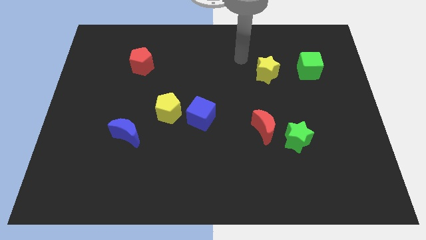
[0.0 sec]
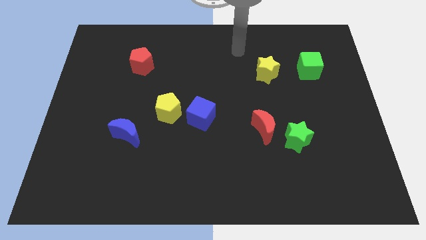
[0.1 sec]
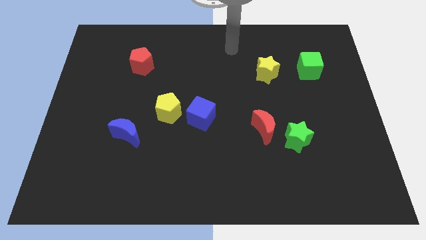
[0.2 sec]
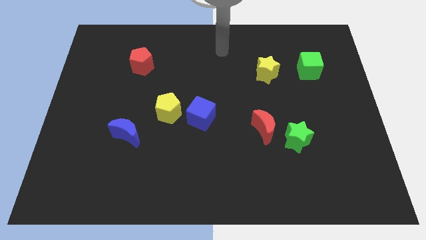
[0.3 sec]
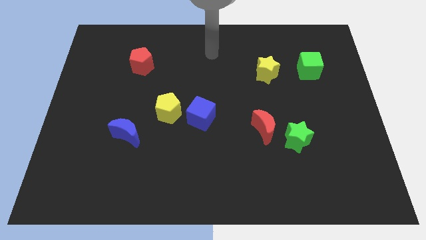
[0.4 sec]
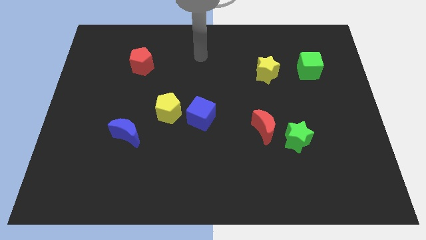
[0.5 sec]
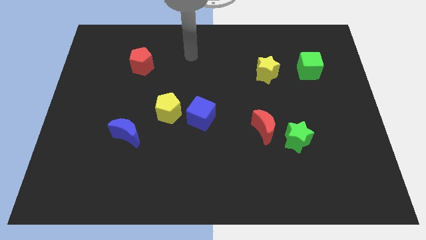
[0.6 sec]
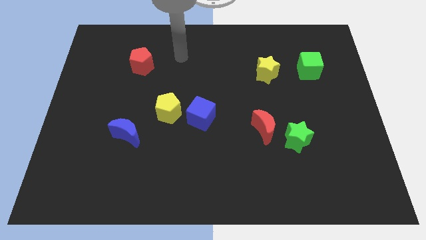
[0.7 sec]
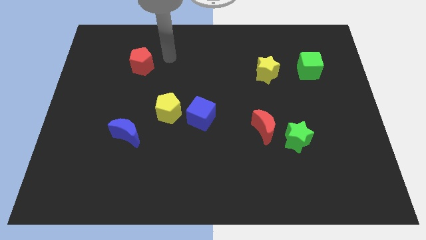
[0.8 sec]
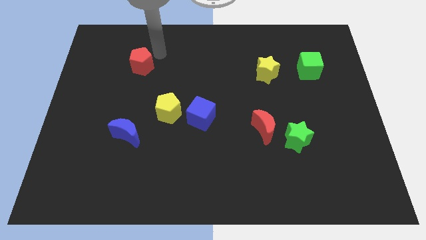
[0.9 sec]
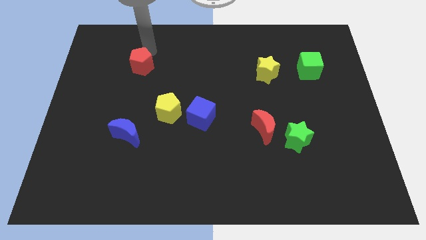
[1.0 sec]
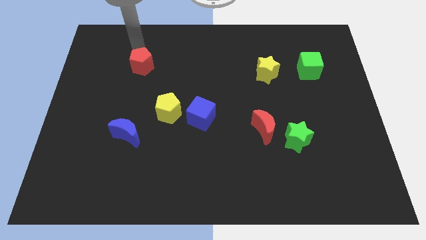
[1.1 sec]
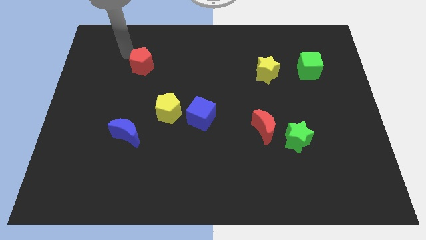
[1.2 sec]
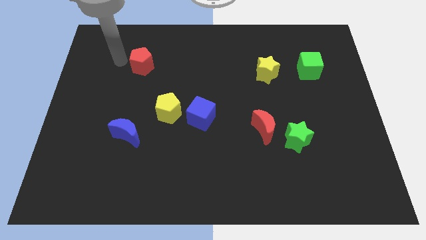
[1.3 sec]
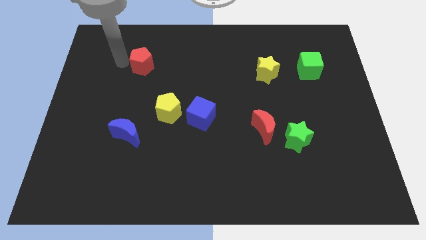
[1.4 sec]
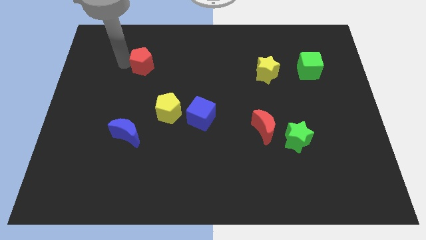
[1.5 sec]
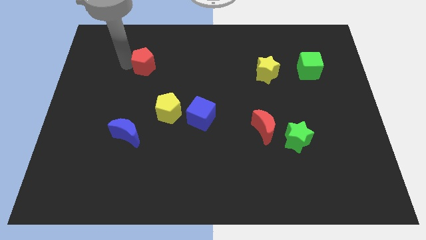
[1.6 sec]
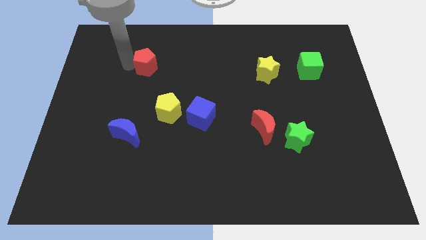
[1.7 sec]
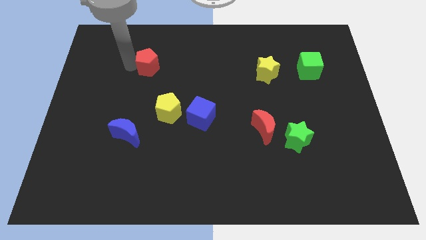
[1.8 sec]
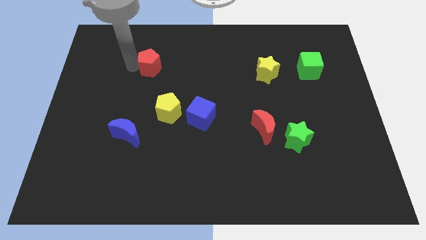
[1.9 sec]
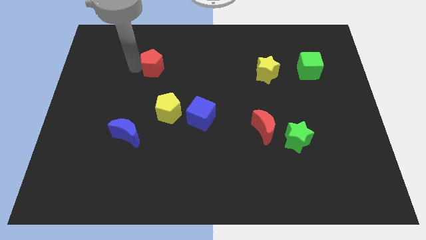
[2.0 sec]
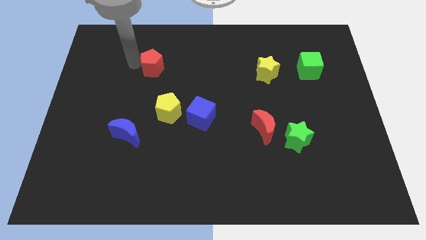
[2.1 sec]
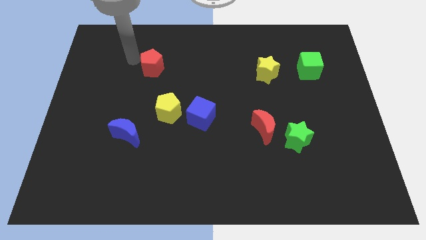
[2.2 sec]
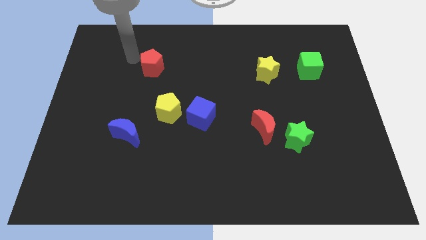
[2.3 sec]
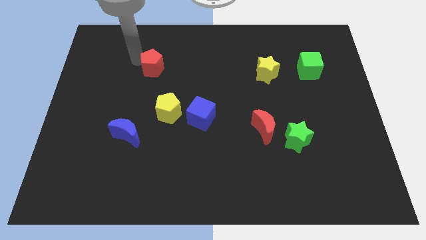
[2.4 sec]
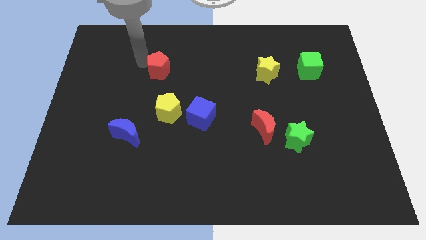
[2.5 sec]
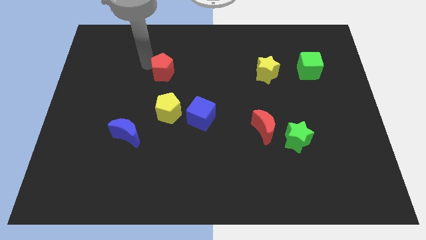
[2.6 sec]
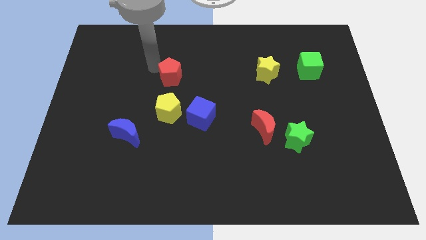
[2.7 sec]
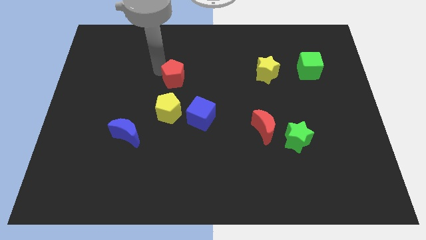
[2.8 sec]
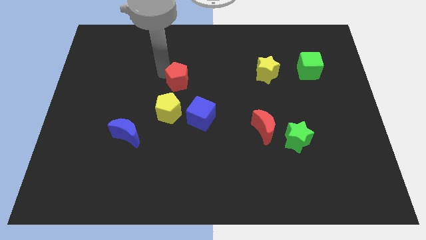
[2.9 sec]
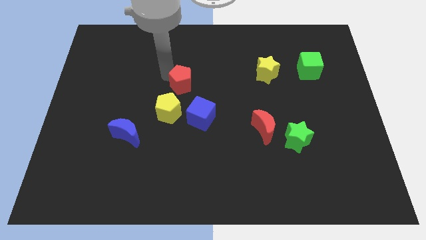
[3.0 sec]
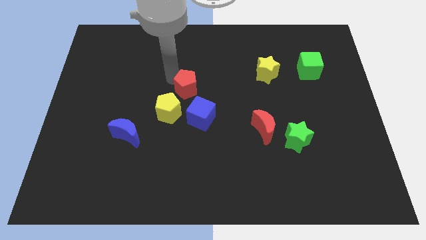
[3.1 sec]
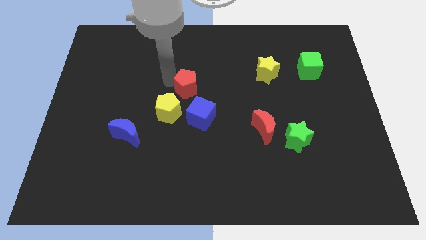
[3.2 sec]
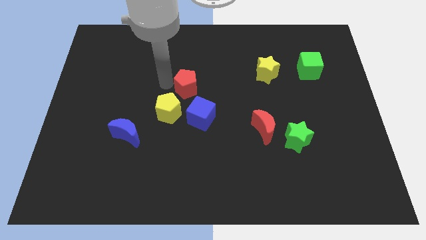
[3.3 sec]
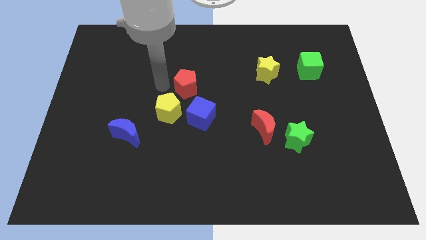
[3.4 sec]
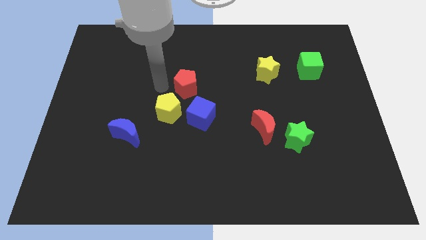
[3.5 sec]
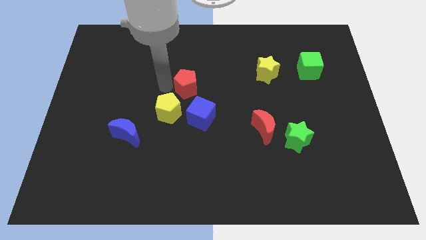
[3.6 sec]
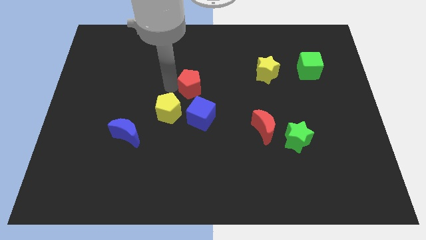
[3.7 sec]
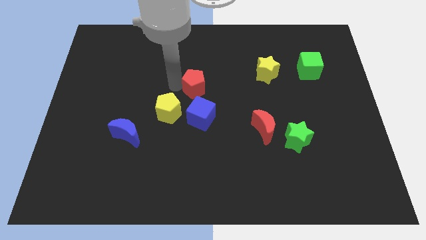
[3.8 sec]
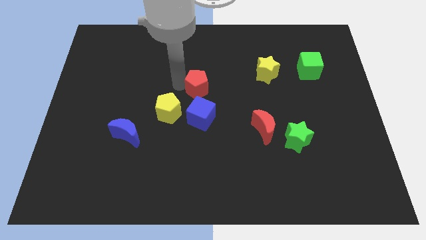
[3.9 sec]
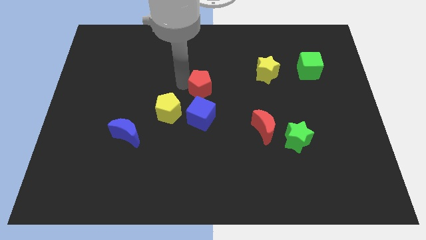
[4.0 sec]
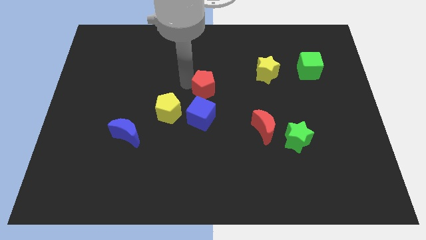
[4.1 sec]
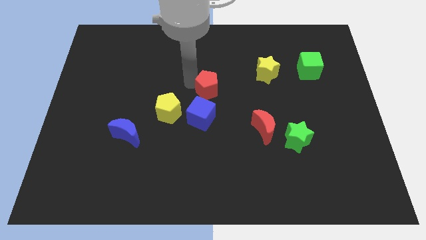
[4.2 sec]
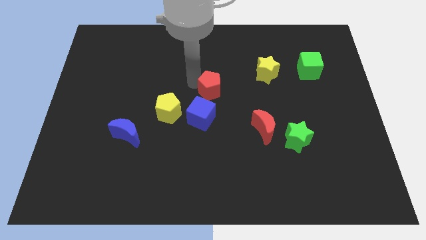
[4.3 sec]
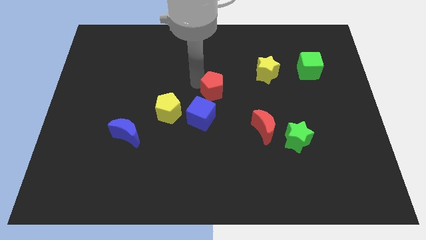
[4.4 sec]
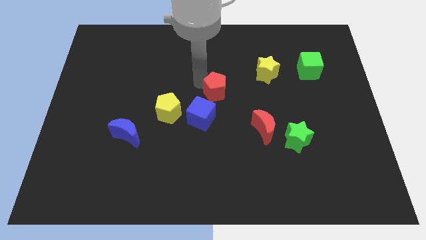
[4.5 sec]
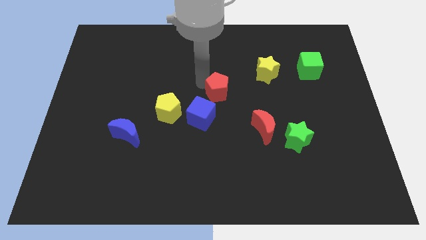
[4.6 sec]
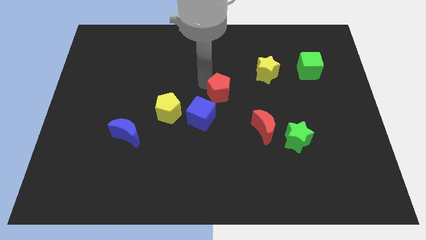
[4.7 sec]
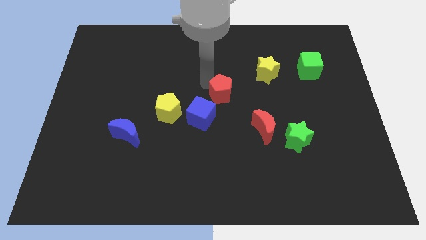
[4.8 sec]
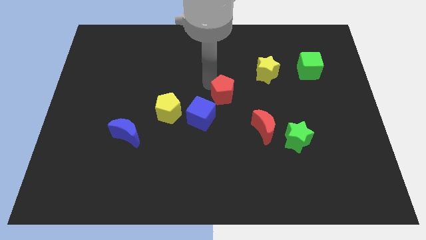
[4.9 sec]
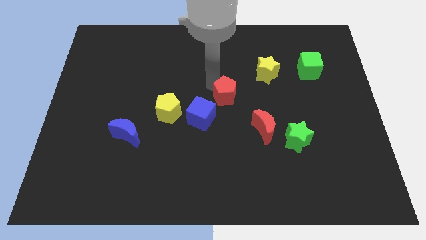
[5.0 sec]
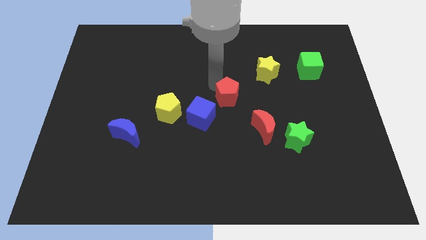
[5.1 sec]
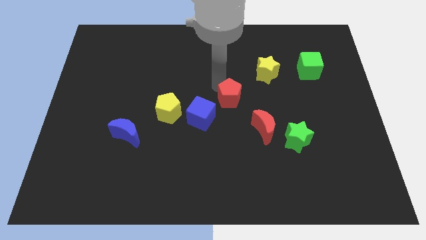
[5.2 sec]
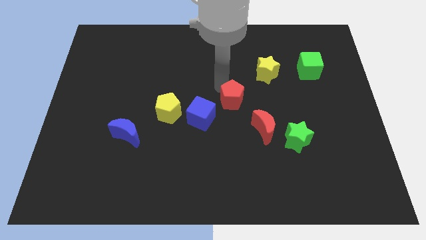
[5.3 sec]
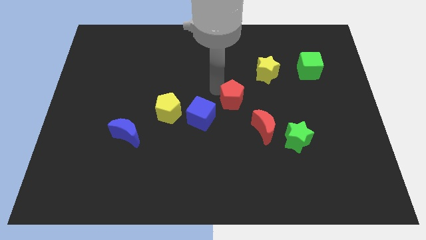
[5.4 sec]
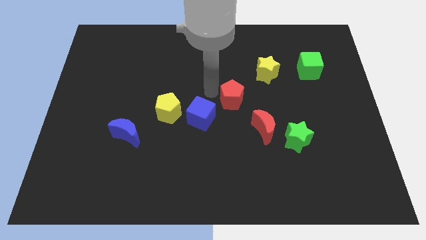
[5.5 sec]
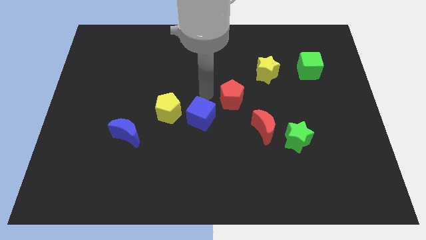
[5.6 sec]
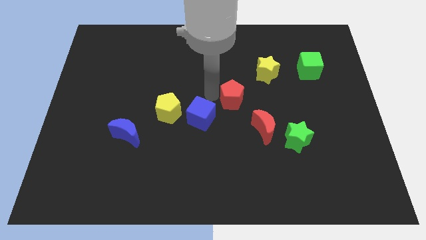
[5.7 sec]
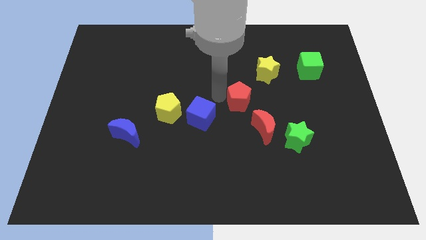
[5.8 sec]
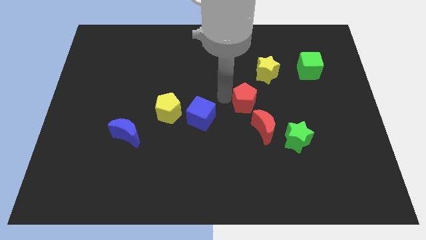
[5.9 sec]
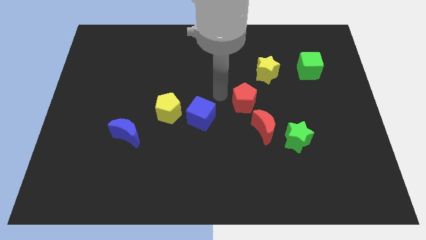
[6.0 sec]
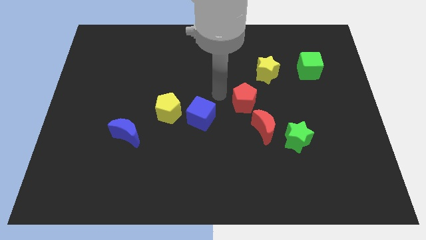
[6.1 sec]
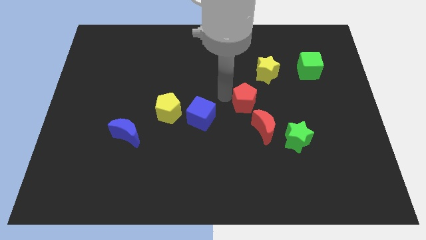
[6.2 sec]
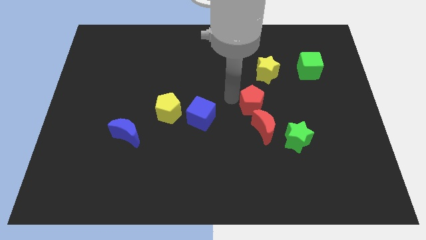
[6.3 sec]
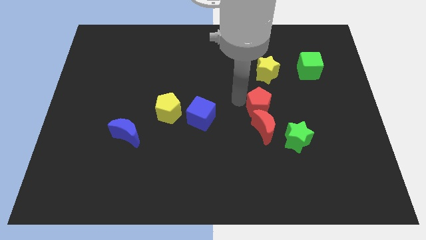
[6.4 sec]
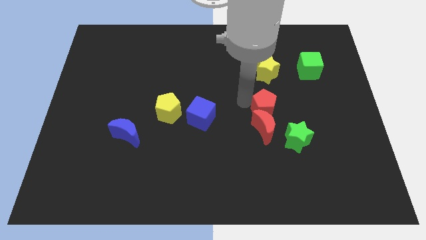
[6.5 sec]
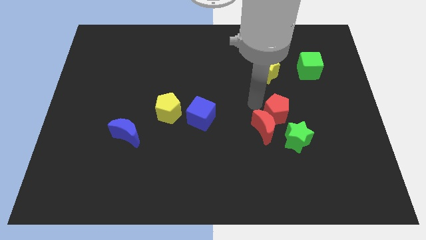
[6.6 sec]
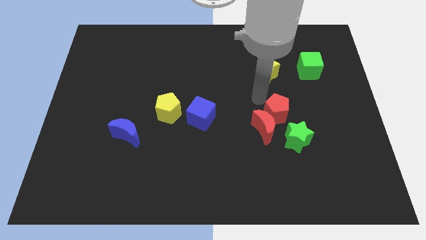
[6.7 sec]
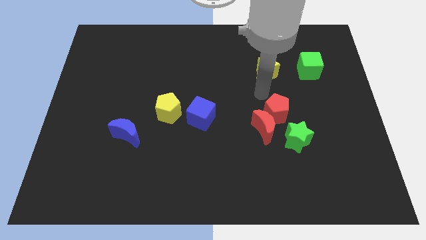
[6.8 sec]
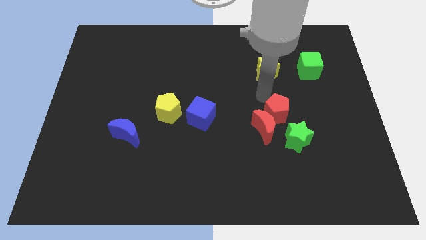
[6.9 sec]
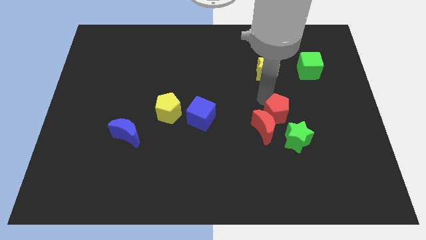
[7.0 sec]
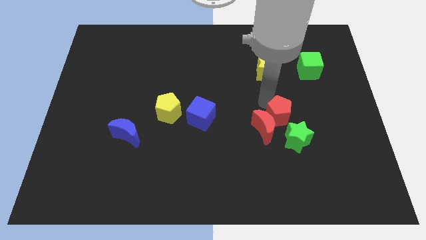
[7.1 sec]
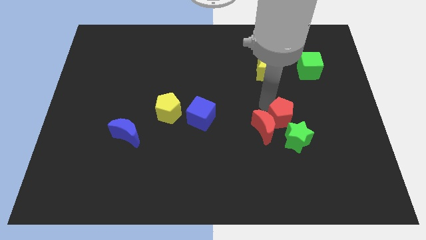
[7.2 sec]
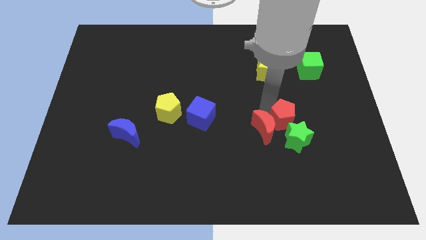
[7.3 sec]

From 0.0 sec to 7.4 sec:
move the red pentagon close to the green star

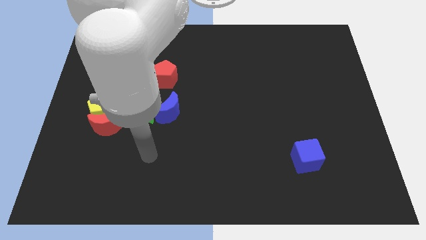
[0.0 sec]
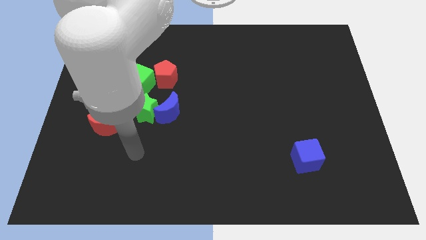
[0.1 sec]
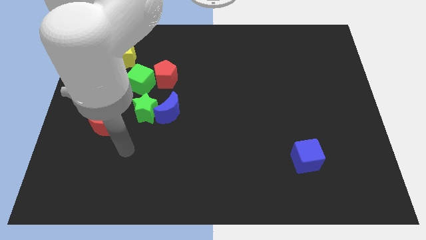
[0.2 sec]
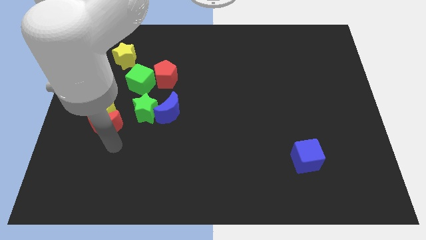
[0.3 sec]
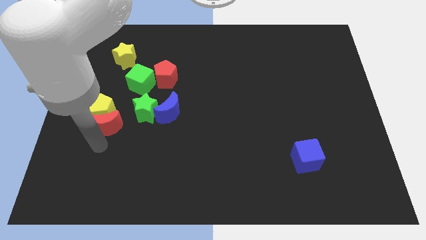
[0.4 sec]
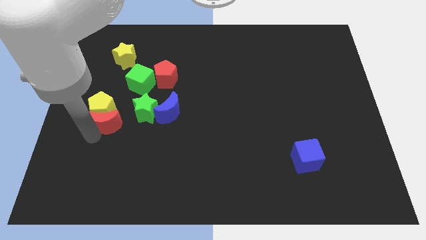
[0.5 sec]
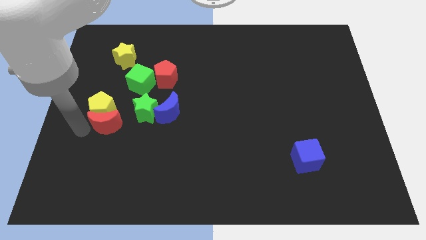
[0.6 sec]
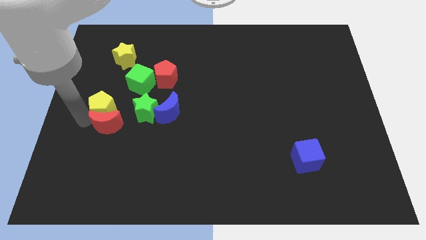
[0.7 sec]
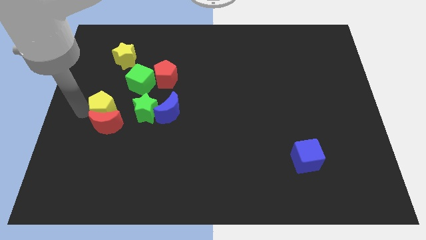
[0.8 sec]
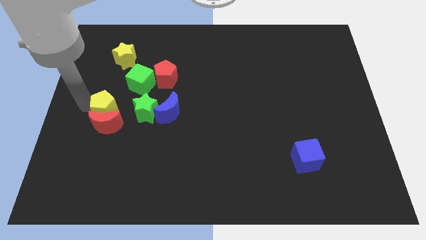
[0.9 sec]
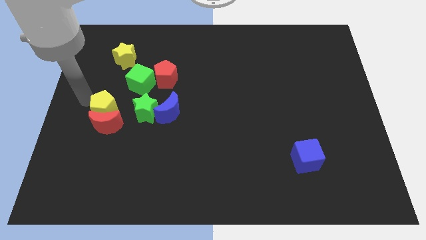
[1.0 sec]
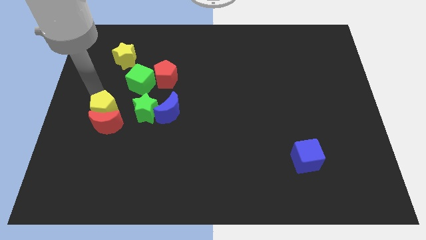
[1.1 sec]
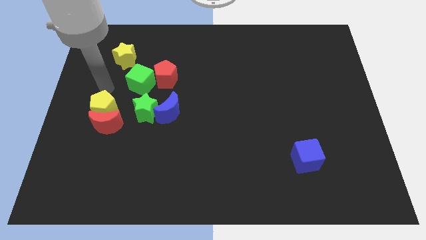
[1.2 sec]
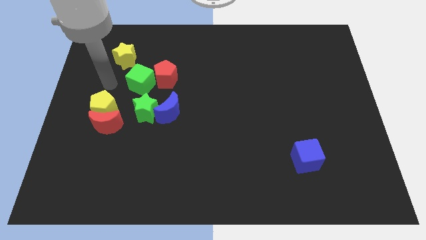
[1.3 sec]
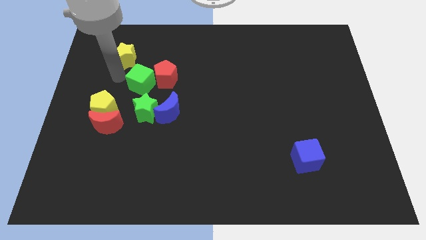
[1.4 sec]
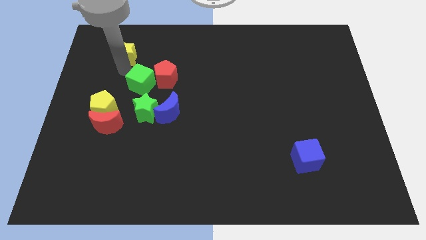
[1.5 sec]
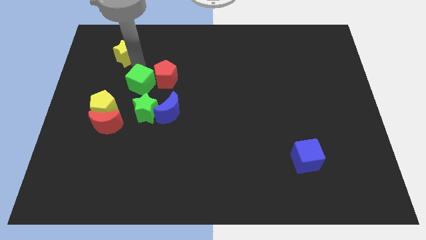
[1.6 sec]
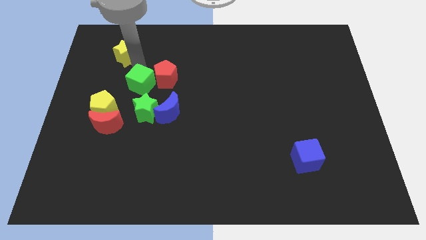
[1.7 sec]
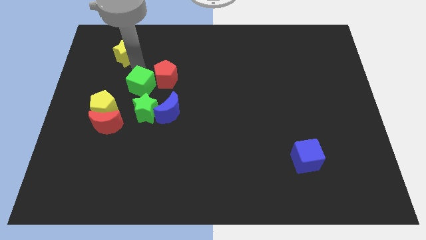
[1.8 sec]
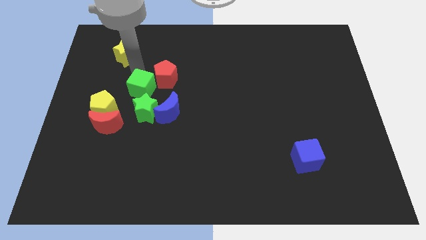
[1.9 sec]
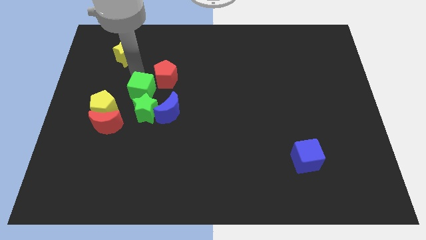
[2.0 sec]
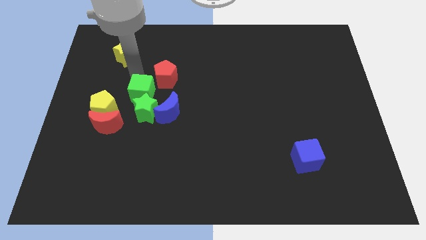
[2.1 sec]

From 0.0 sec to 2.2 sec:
push the green cube next to the green star
